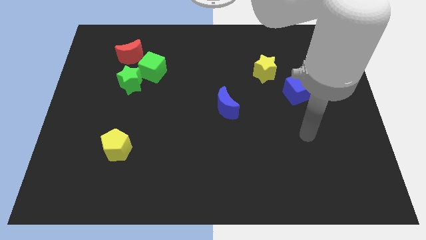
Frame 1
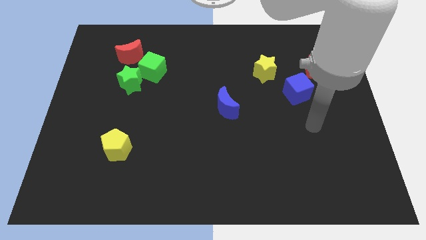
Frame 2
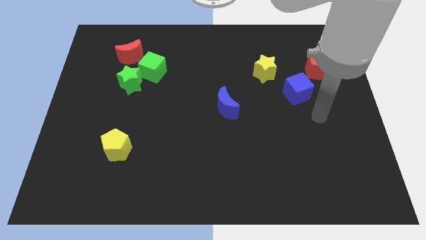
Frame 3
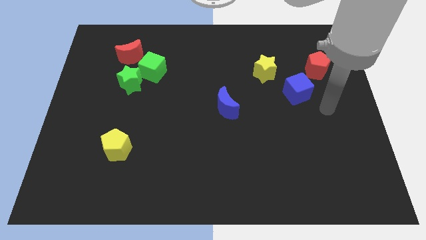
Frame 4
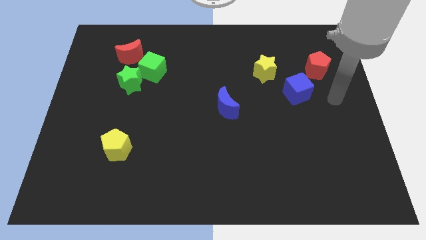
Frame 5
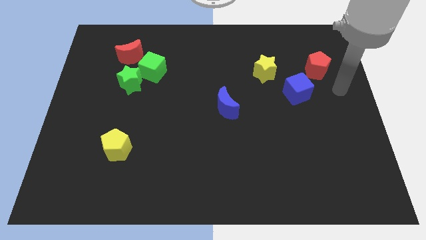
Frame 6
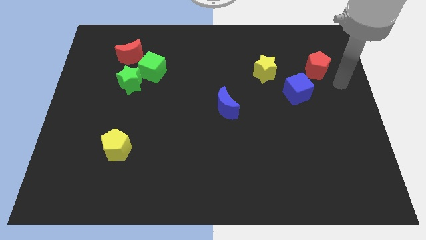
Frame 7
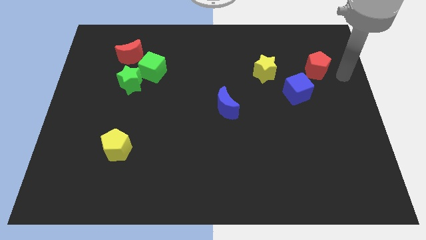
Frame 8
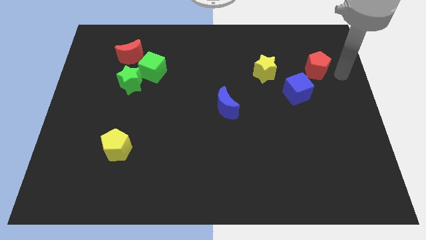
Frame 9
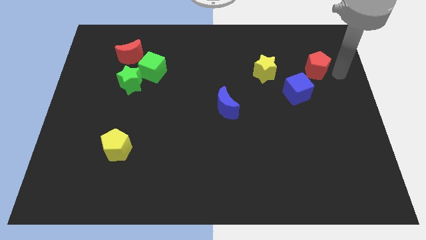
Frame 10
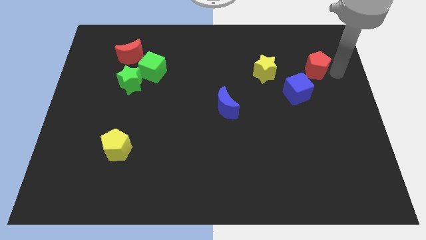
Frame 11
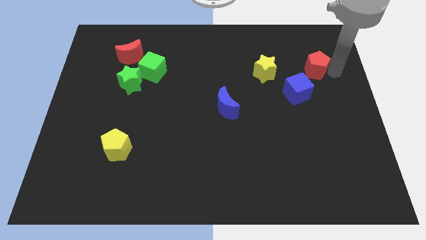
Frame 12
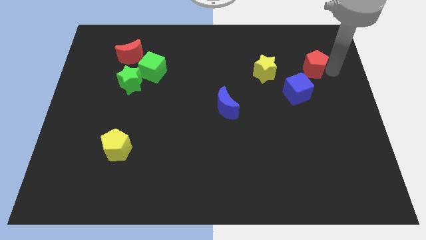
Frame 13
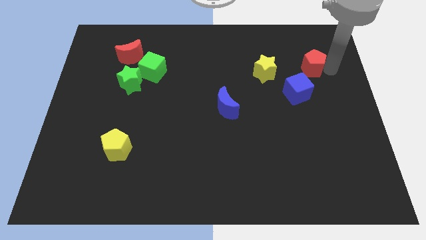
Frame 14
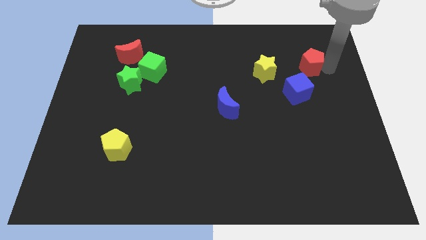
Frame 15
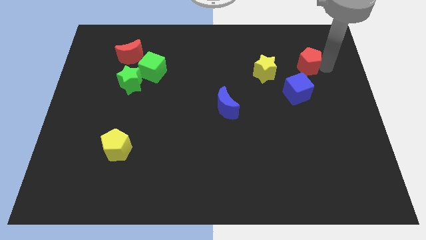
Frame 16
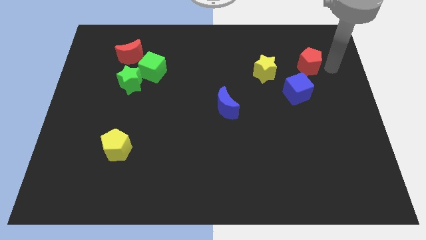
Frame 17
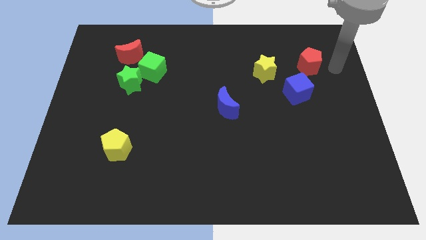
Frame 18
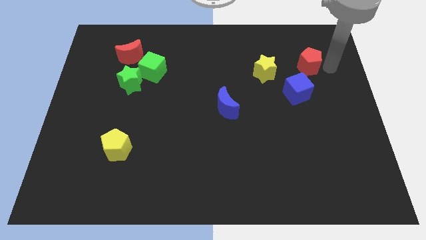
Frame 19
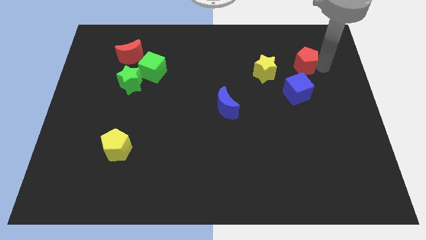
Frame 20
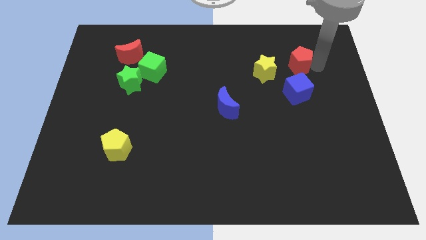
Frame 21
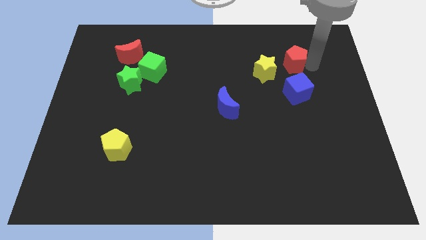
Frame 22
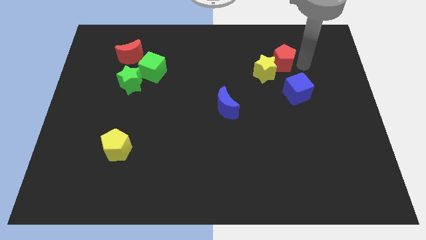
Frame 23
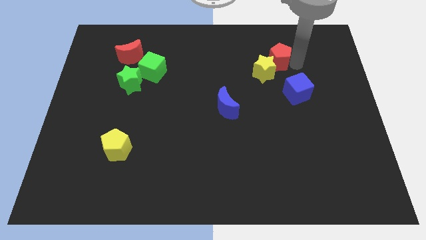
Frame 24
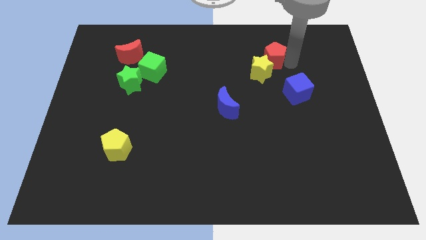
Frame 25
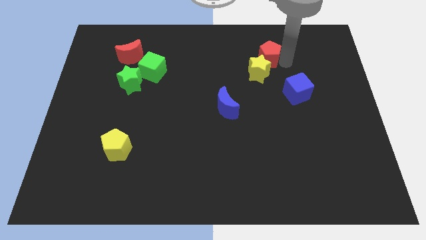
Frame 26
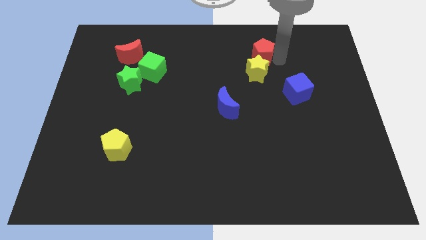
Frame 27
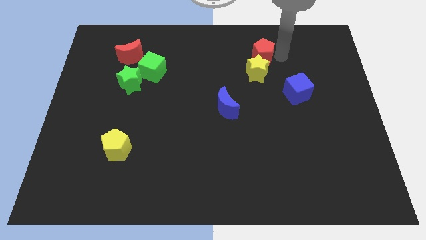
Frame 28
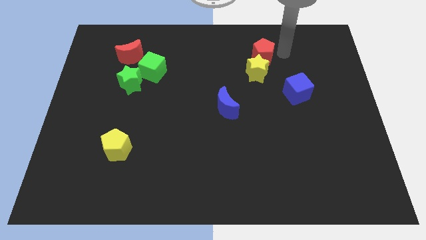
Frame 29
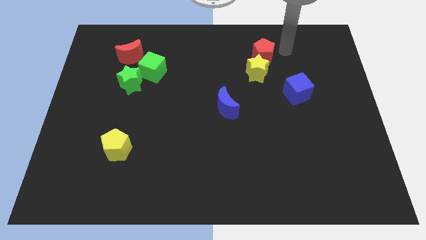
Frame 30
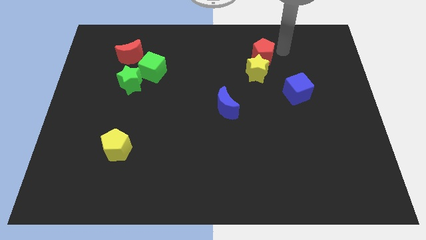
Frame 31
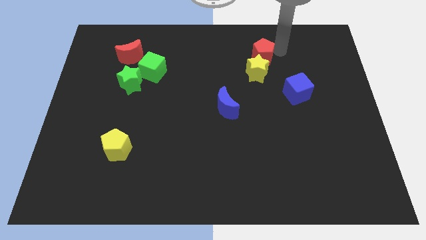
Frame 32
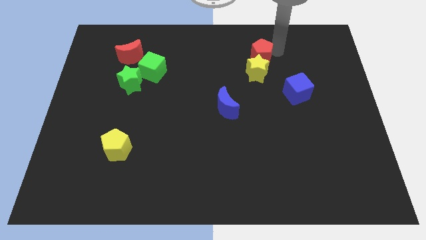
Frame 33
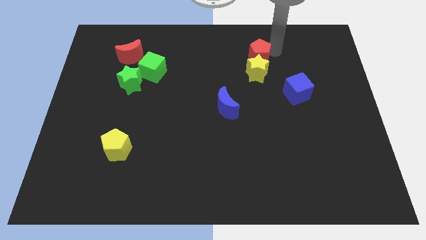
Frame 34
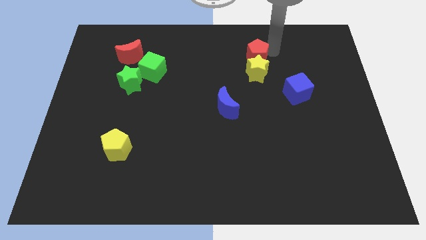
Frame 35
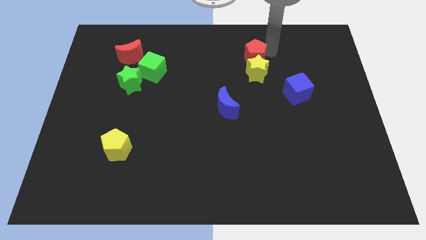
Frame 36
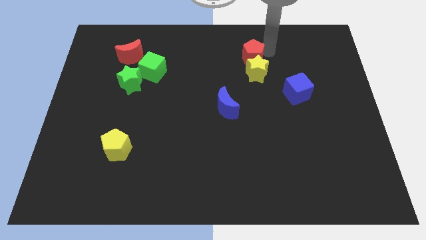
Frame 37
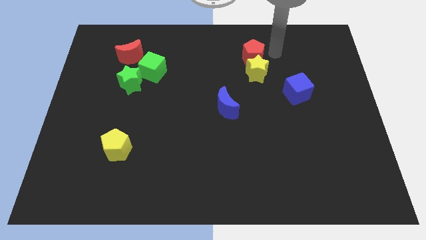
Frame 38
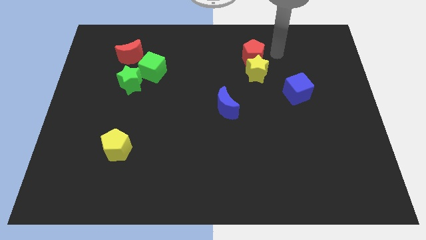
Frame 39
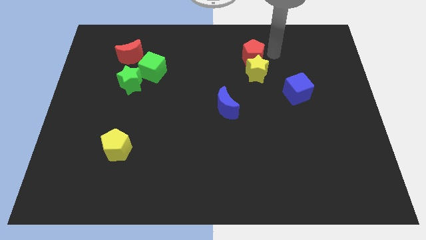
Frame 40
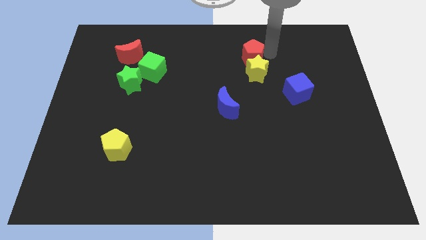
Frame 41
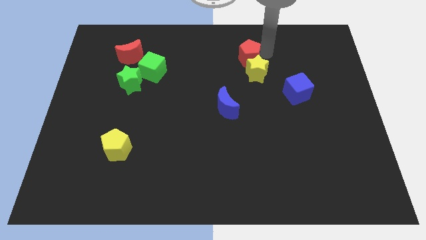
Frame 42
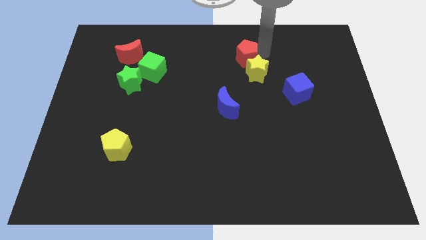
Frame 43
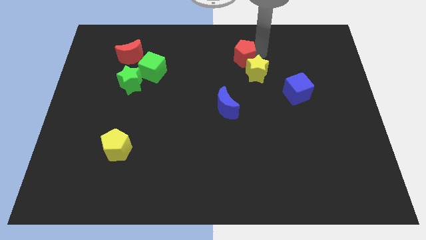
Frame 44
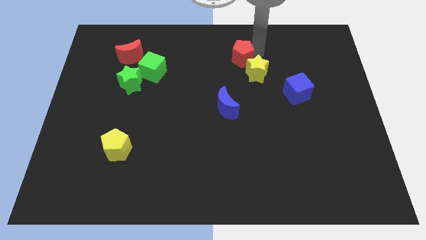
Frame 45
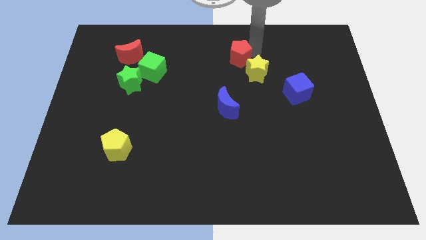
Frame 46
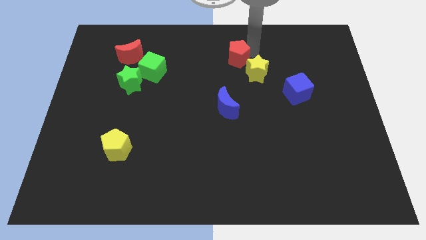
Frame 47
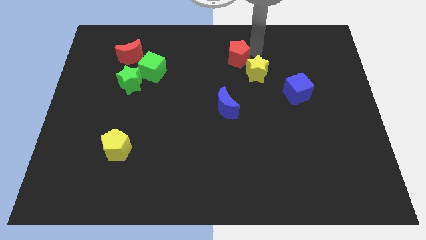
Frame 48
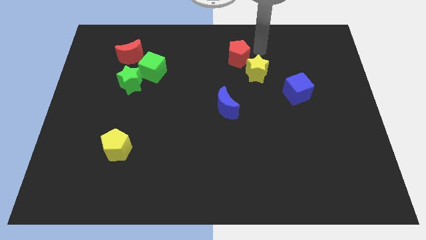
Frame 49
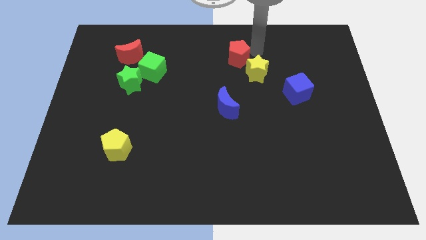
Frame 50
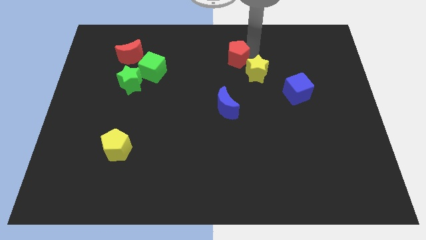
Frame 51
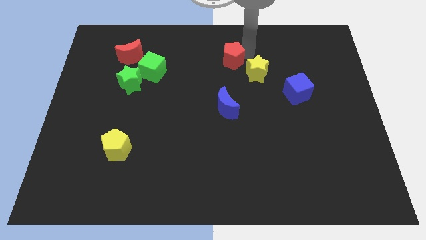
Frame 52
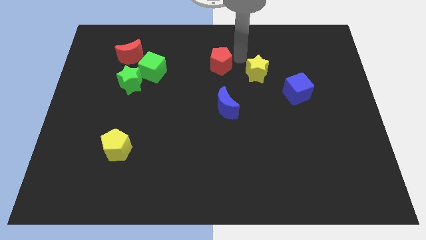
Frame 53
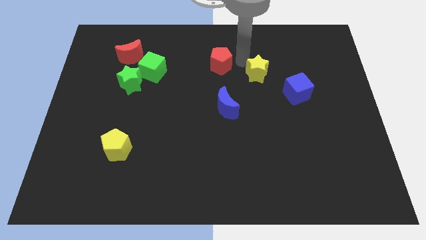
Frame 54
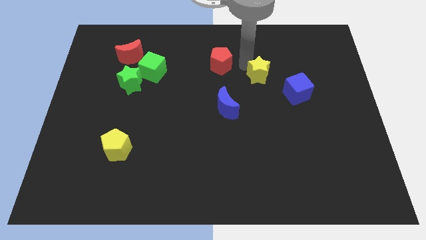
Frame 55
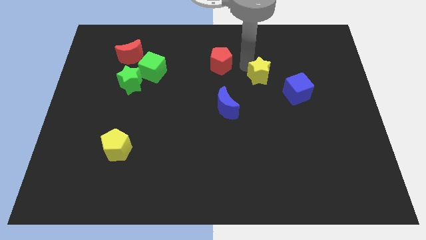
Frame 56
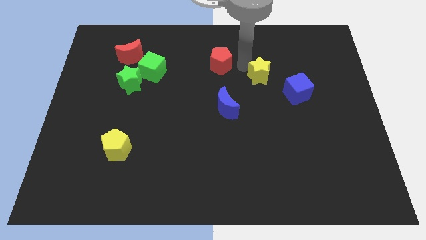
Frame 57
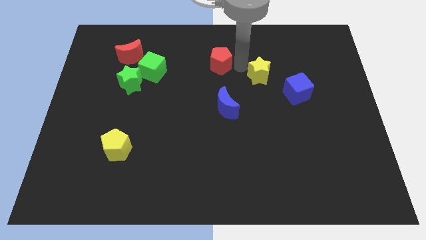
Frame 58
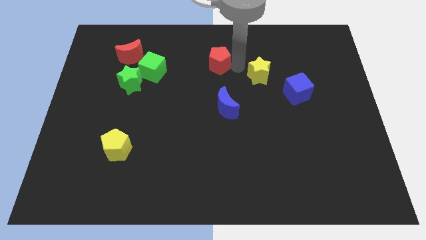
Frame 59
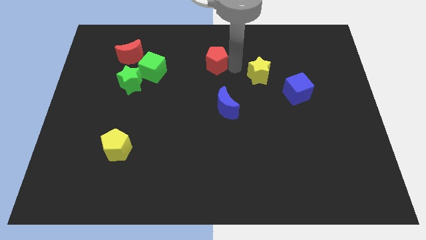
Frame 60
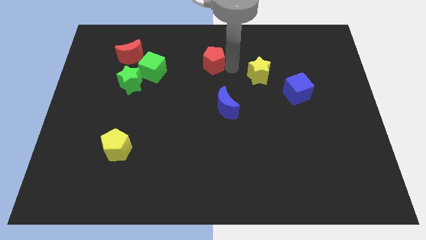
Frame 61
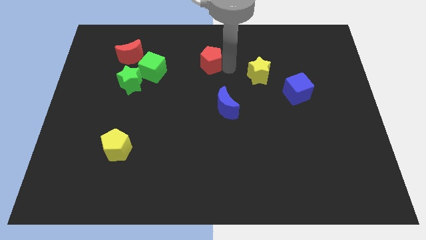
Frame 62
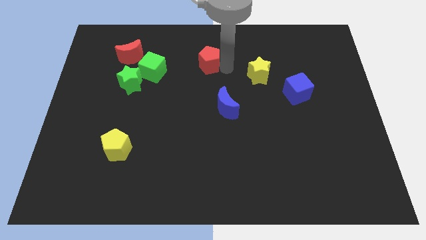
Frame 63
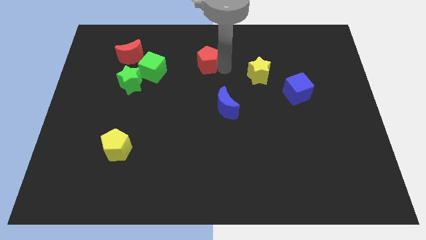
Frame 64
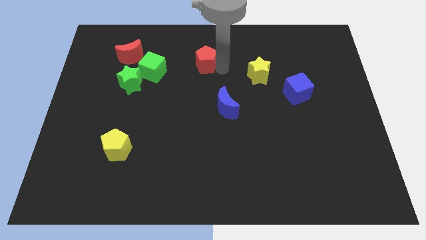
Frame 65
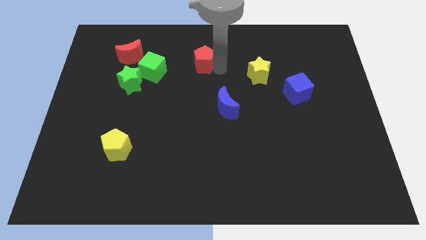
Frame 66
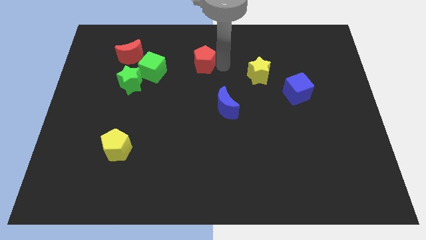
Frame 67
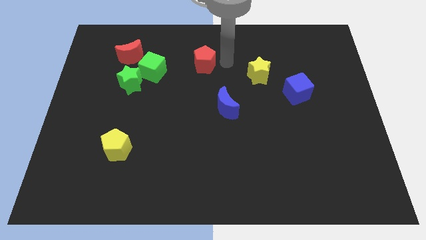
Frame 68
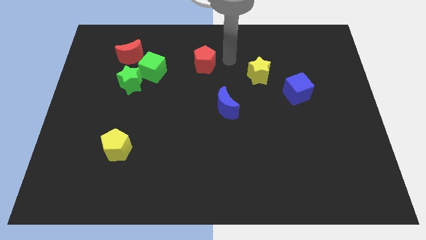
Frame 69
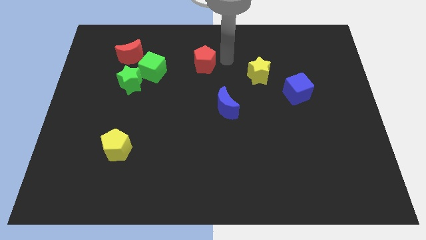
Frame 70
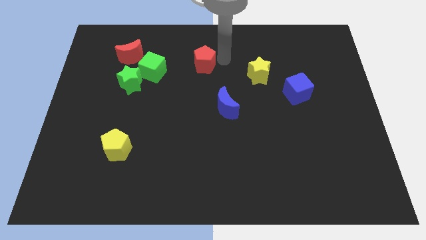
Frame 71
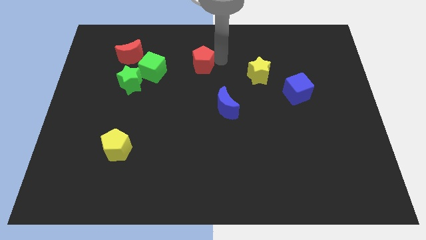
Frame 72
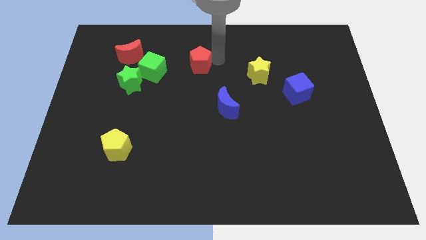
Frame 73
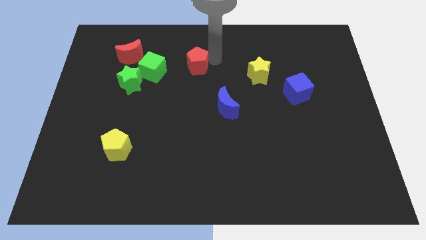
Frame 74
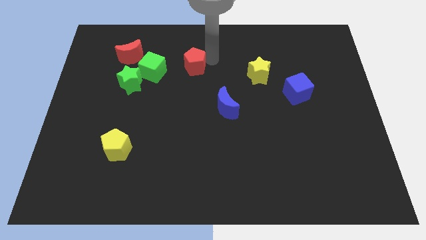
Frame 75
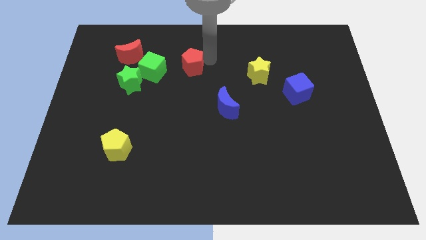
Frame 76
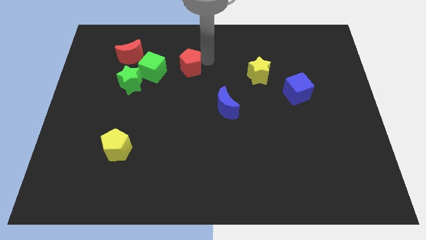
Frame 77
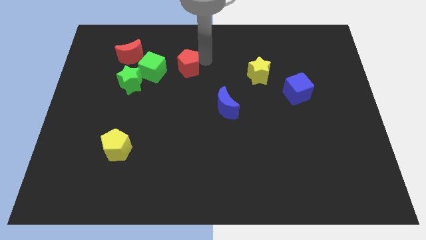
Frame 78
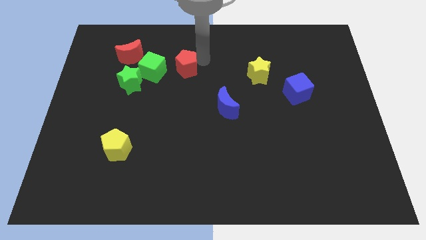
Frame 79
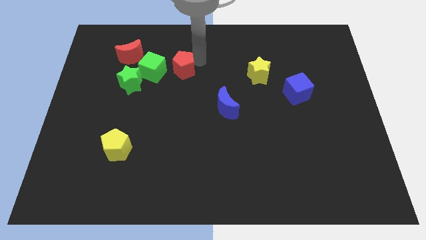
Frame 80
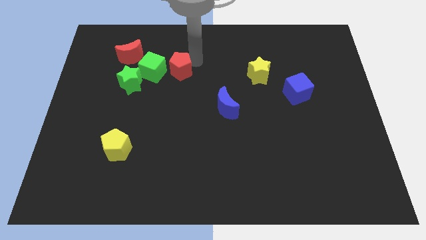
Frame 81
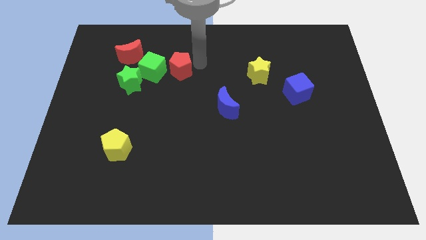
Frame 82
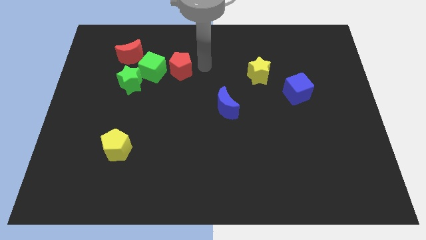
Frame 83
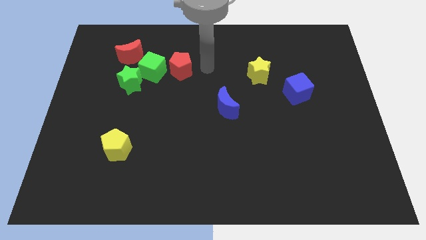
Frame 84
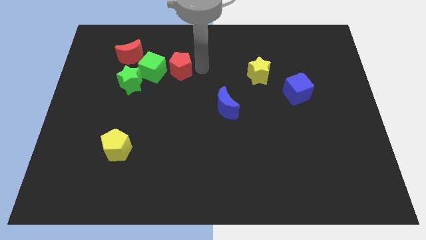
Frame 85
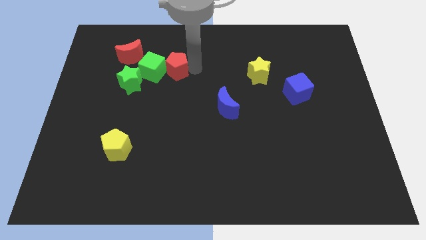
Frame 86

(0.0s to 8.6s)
slide the red pentagon towards the green cube
